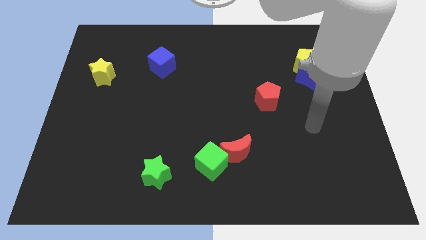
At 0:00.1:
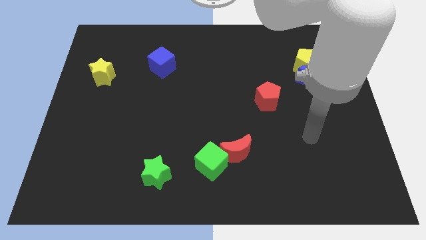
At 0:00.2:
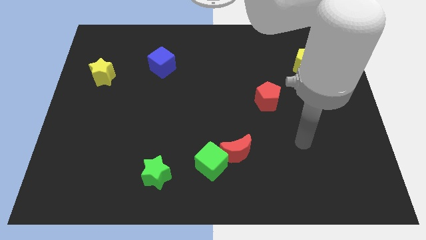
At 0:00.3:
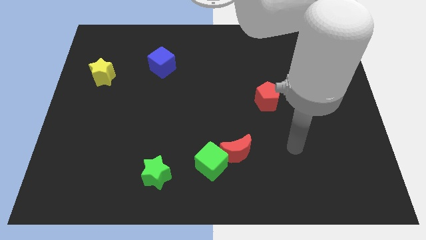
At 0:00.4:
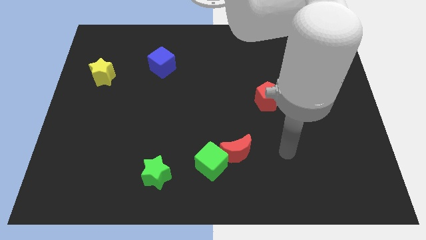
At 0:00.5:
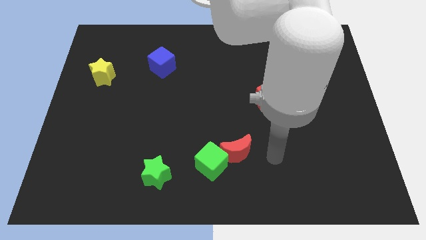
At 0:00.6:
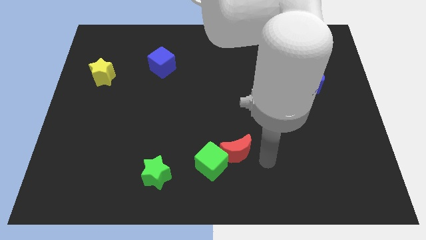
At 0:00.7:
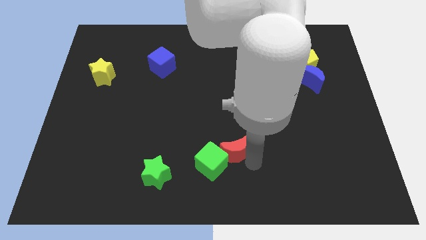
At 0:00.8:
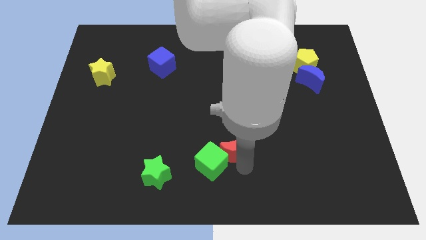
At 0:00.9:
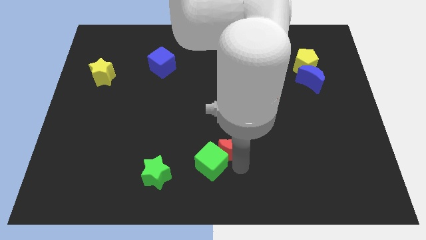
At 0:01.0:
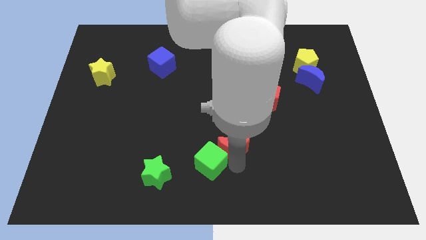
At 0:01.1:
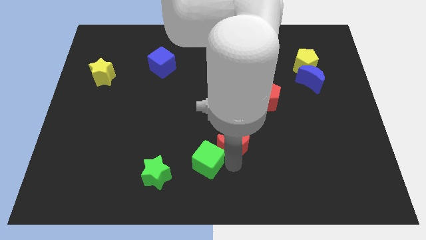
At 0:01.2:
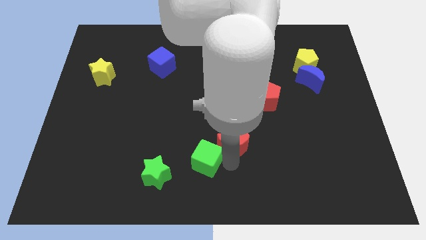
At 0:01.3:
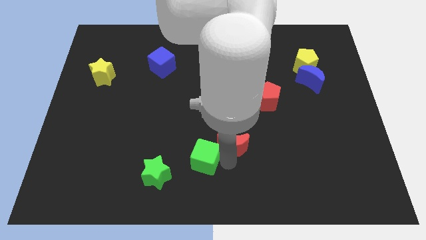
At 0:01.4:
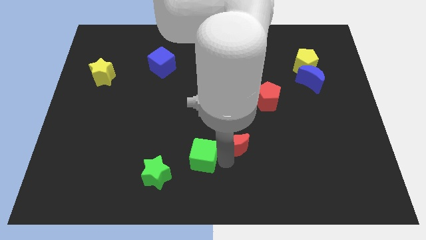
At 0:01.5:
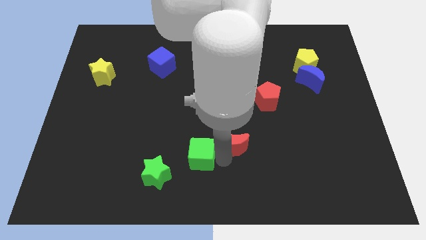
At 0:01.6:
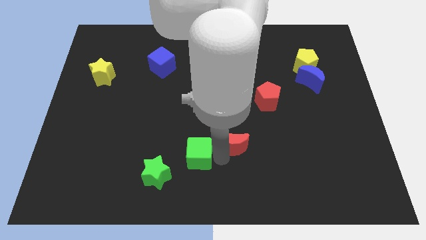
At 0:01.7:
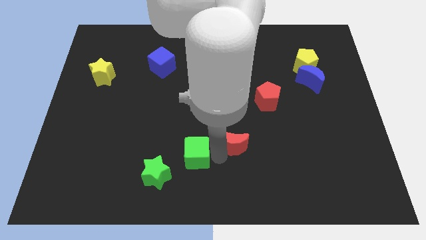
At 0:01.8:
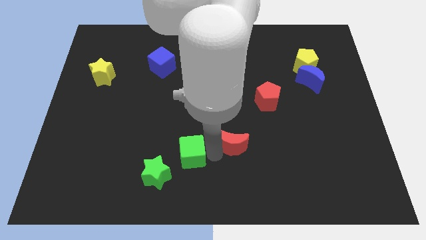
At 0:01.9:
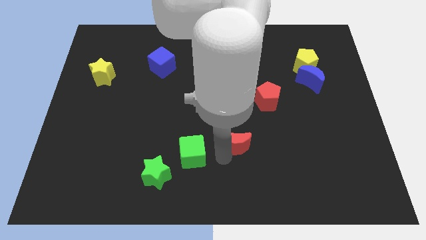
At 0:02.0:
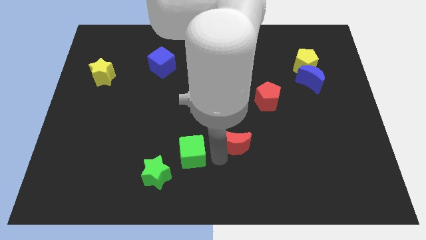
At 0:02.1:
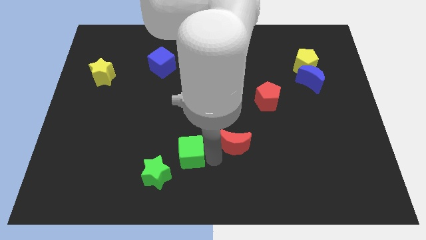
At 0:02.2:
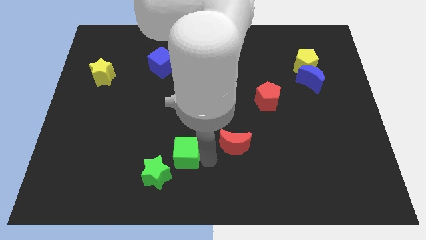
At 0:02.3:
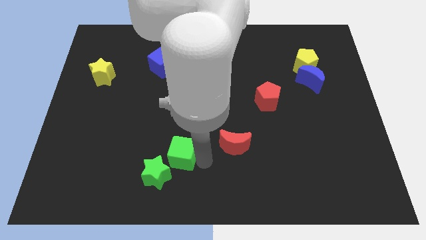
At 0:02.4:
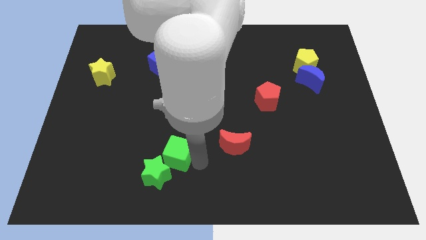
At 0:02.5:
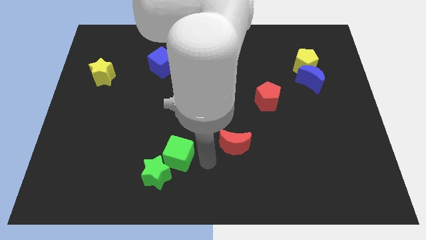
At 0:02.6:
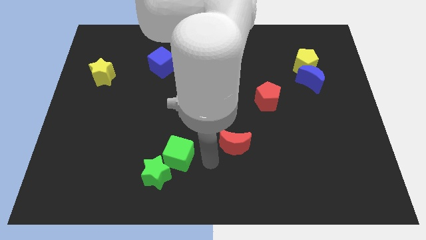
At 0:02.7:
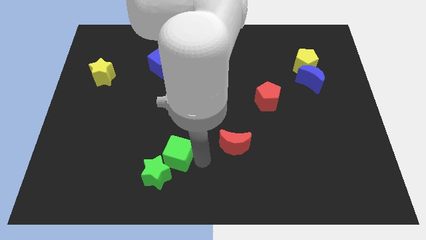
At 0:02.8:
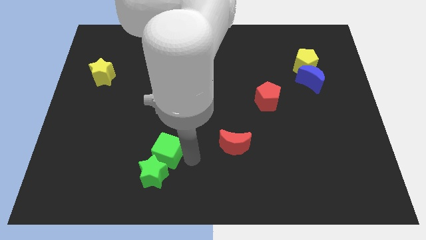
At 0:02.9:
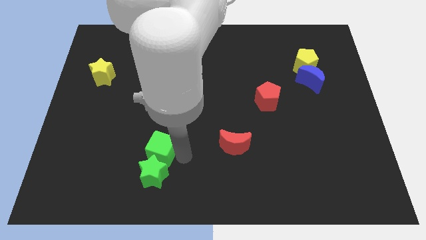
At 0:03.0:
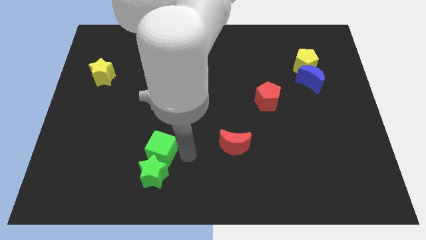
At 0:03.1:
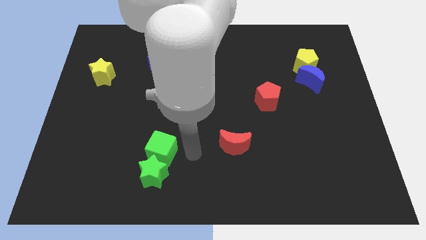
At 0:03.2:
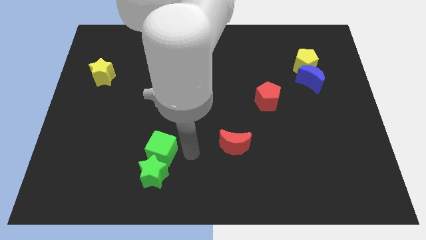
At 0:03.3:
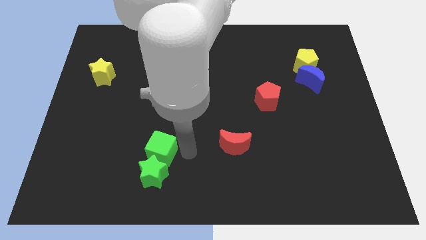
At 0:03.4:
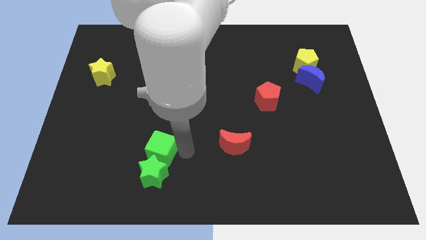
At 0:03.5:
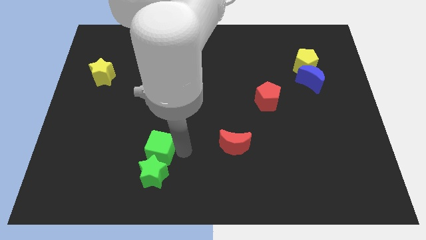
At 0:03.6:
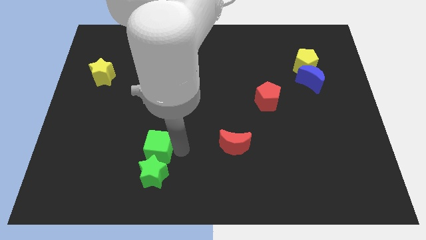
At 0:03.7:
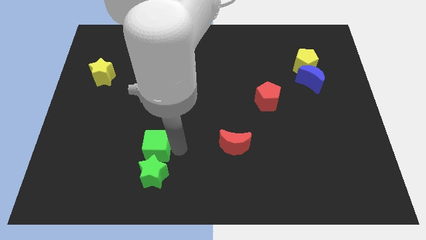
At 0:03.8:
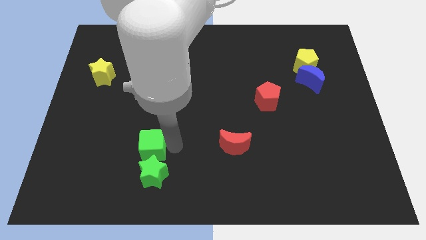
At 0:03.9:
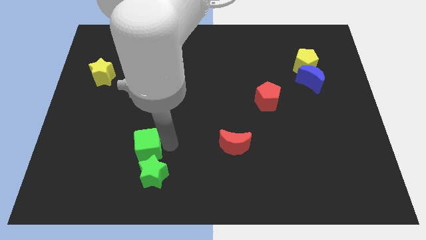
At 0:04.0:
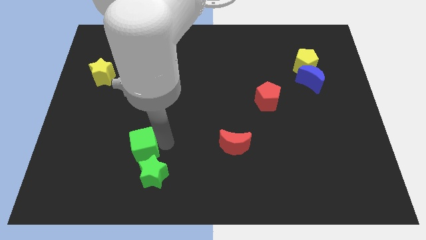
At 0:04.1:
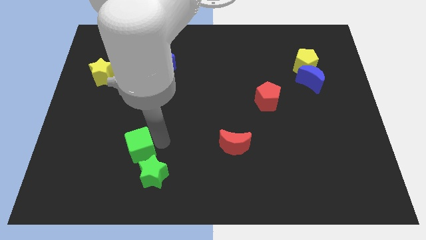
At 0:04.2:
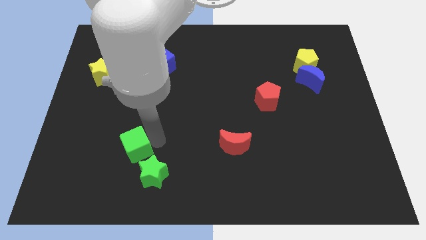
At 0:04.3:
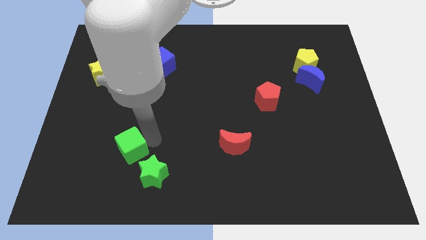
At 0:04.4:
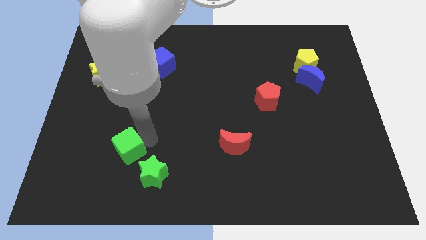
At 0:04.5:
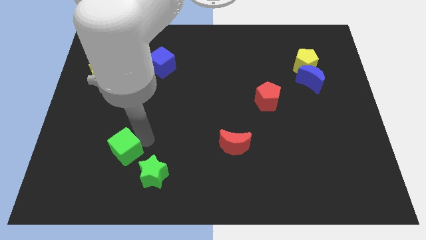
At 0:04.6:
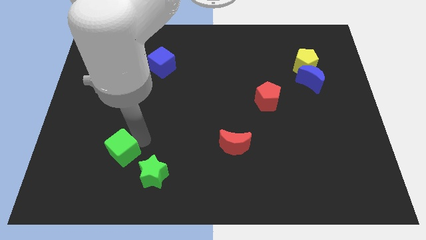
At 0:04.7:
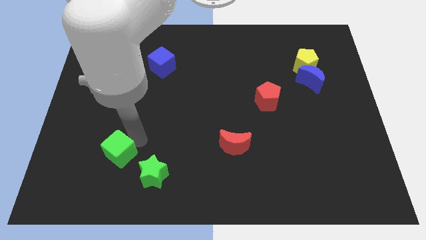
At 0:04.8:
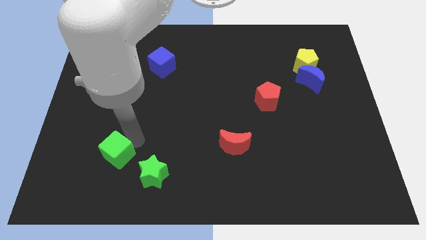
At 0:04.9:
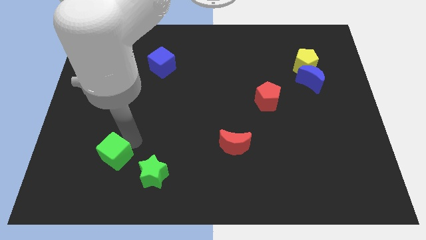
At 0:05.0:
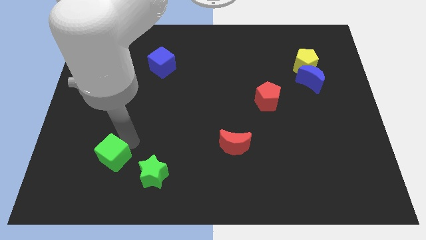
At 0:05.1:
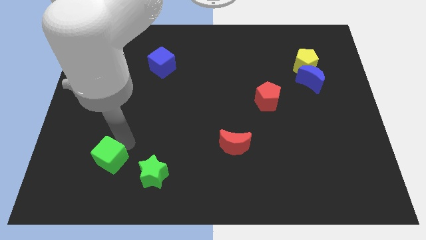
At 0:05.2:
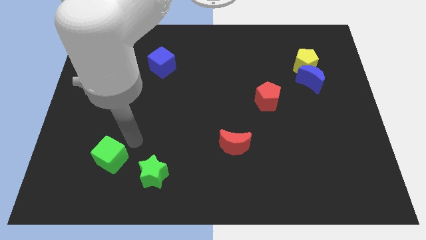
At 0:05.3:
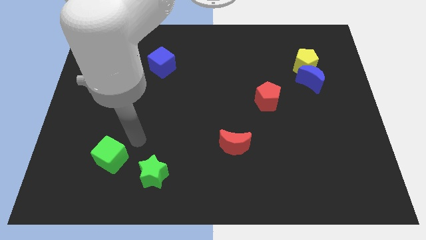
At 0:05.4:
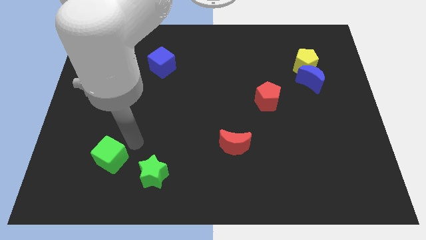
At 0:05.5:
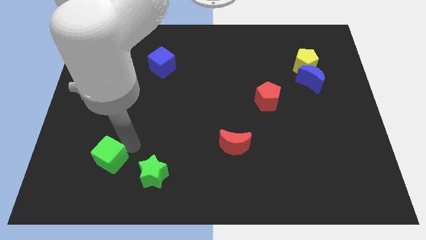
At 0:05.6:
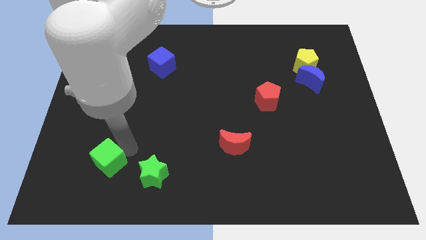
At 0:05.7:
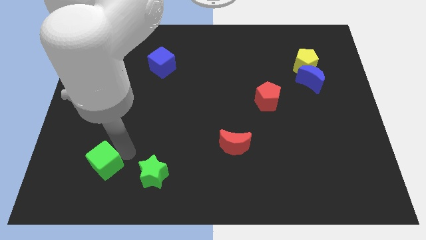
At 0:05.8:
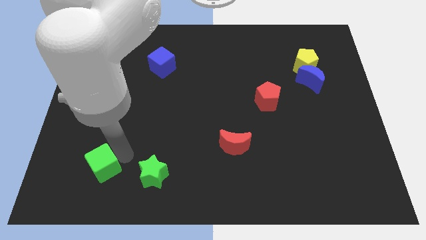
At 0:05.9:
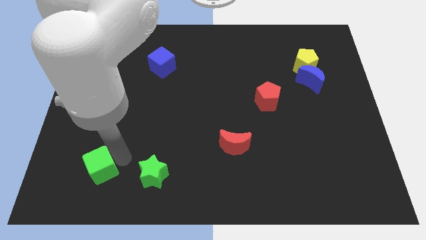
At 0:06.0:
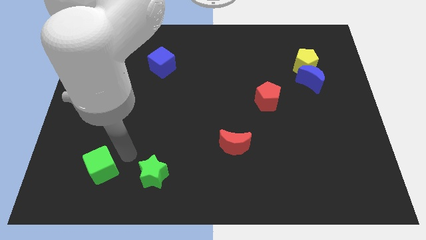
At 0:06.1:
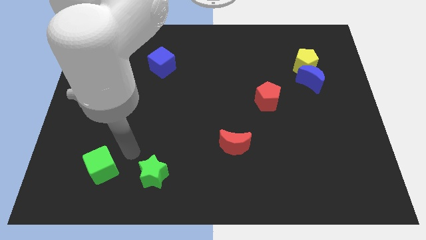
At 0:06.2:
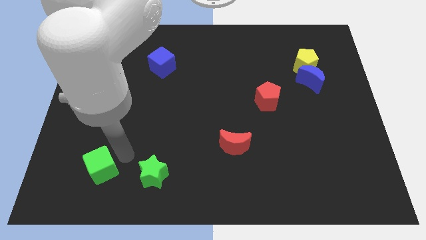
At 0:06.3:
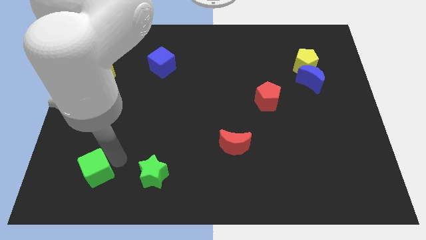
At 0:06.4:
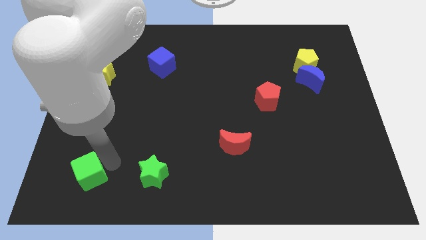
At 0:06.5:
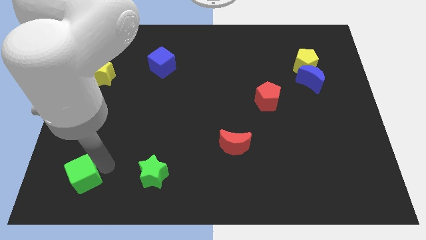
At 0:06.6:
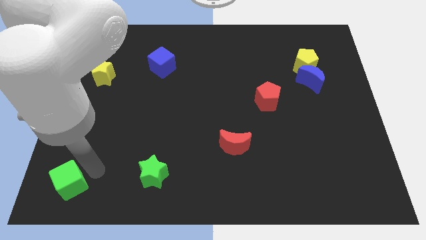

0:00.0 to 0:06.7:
push the green cube to the bottom left
